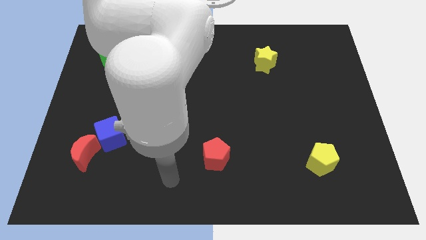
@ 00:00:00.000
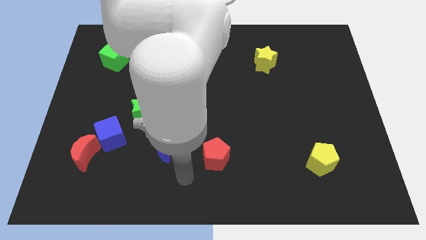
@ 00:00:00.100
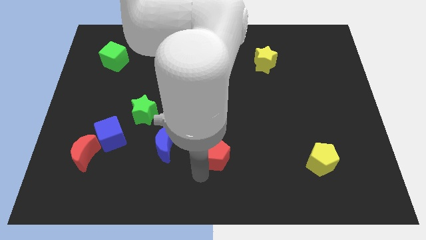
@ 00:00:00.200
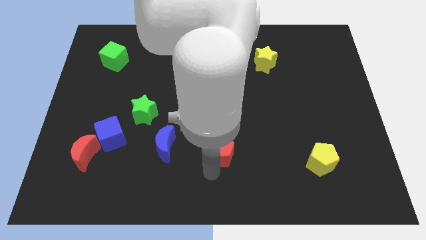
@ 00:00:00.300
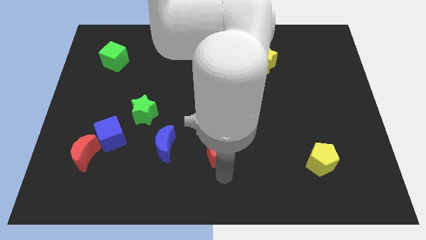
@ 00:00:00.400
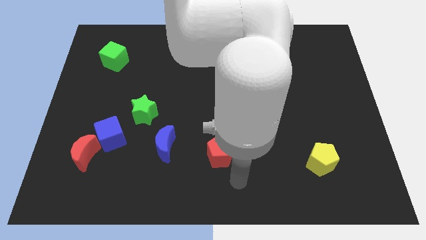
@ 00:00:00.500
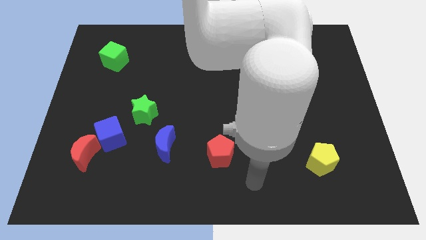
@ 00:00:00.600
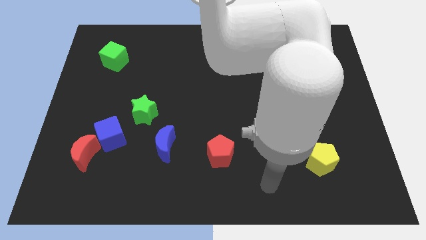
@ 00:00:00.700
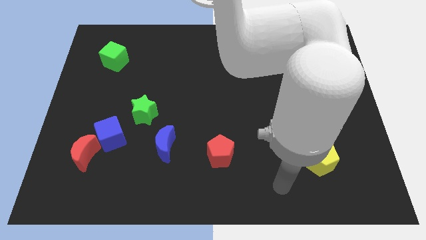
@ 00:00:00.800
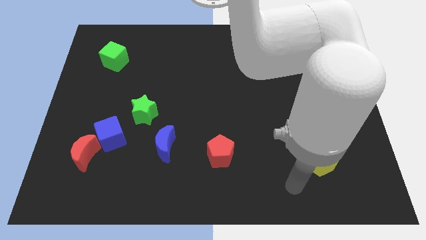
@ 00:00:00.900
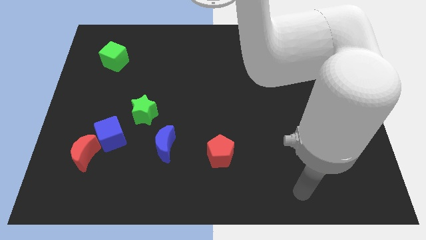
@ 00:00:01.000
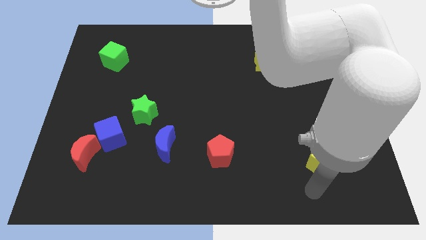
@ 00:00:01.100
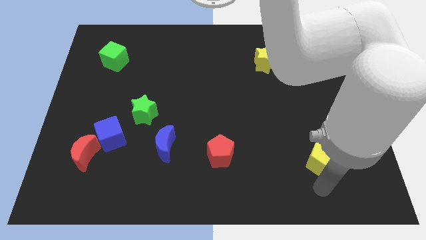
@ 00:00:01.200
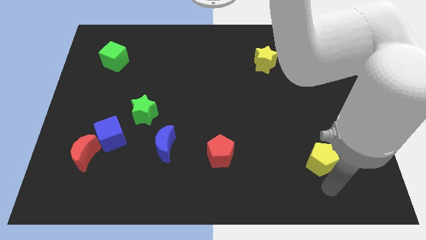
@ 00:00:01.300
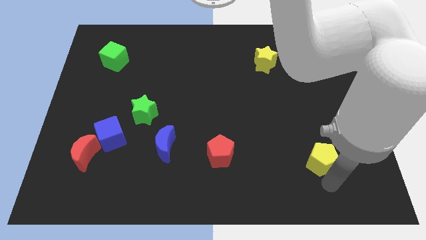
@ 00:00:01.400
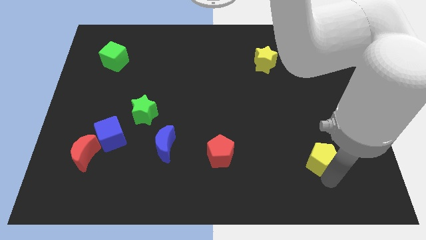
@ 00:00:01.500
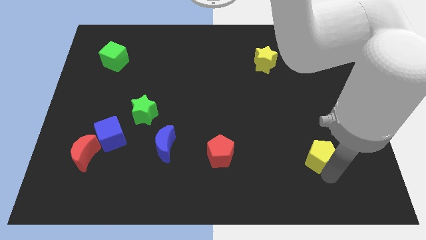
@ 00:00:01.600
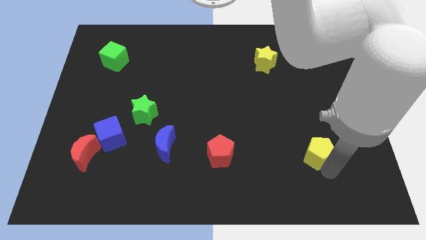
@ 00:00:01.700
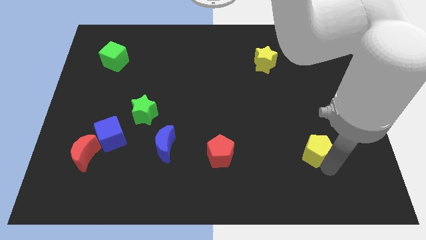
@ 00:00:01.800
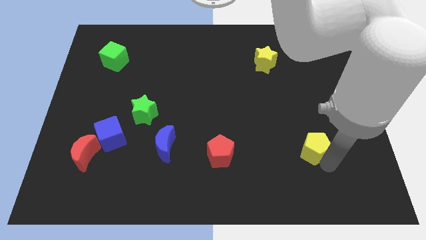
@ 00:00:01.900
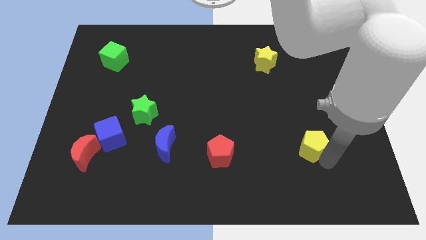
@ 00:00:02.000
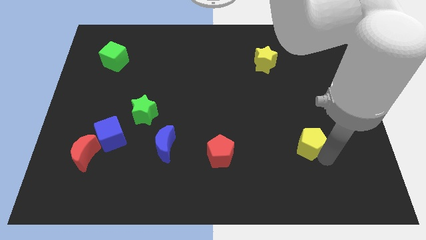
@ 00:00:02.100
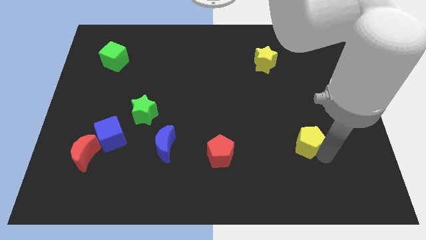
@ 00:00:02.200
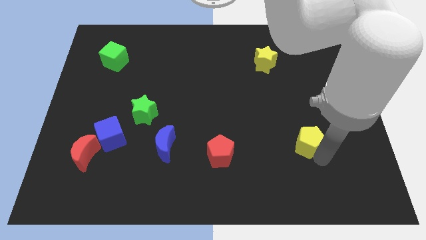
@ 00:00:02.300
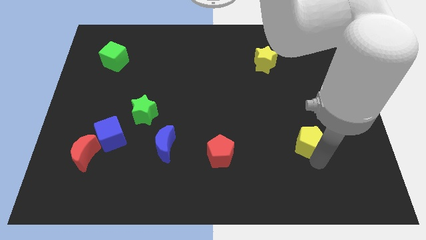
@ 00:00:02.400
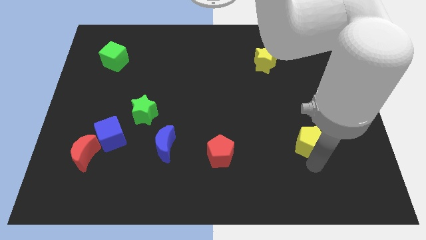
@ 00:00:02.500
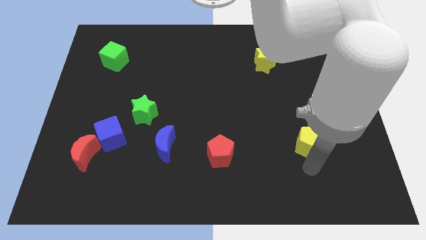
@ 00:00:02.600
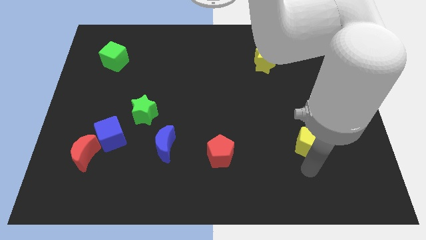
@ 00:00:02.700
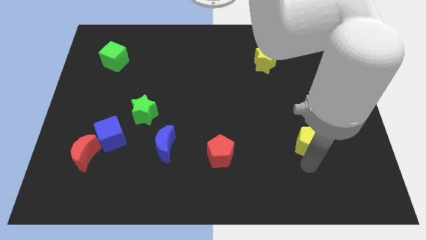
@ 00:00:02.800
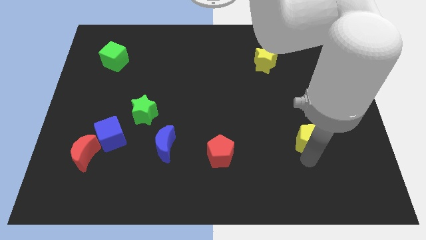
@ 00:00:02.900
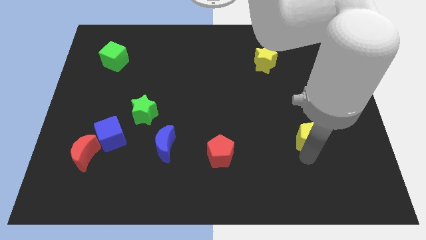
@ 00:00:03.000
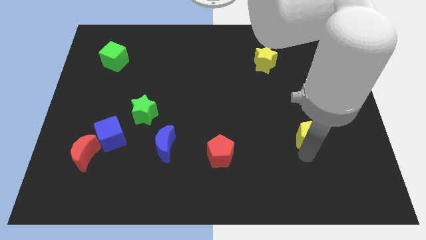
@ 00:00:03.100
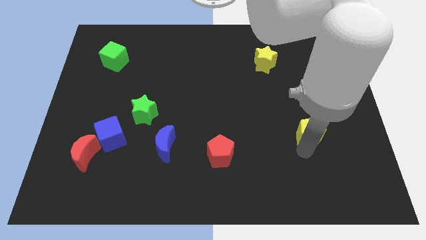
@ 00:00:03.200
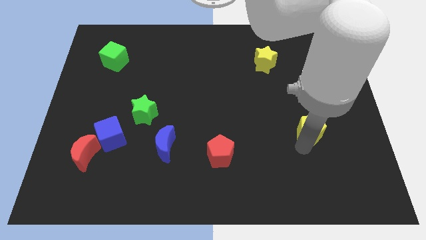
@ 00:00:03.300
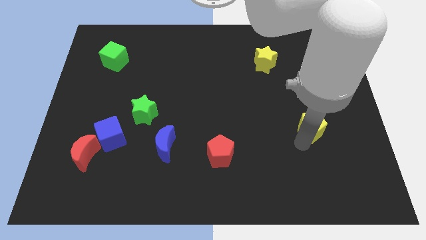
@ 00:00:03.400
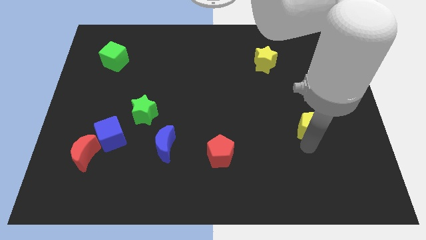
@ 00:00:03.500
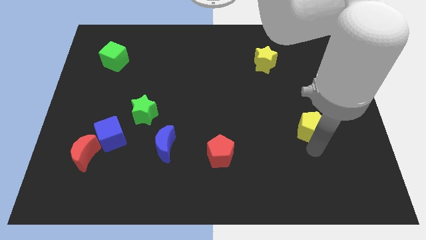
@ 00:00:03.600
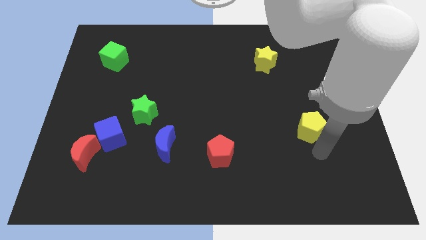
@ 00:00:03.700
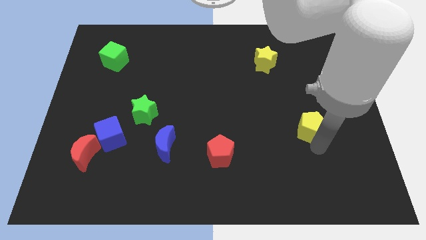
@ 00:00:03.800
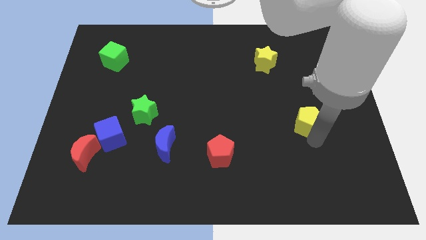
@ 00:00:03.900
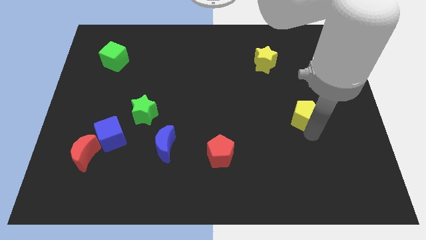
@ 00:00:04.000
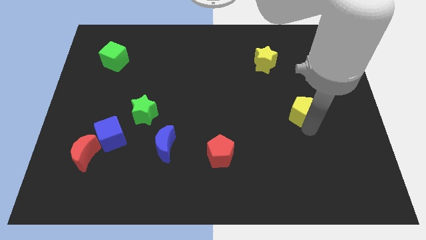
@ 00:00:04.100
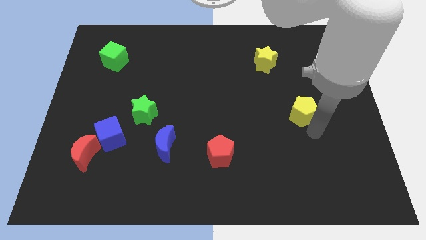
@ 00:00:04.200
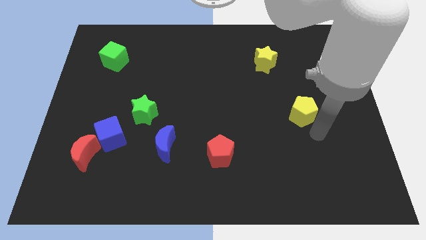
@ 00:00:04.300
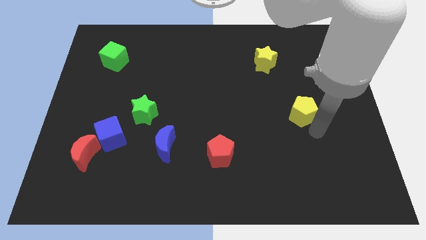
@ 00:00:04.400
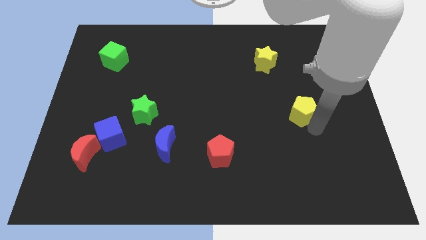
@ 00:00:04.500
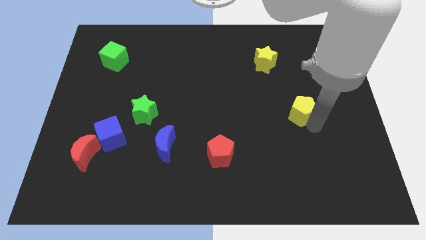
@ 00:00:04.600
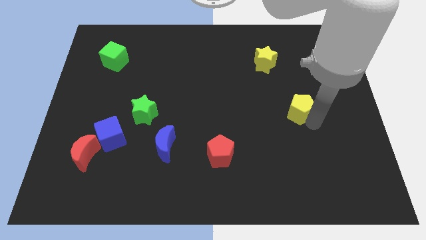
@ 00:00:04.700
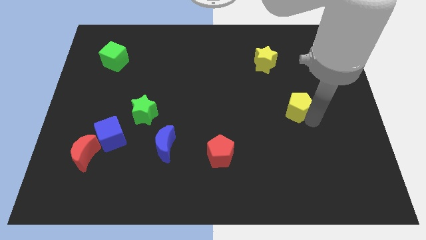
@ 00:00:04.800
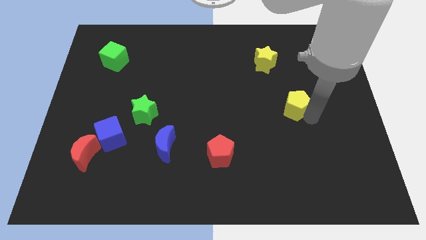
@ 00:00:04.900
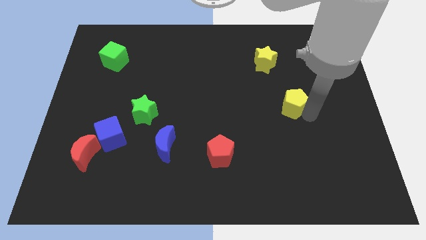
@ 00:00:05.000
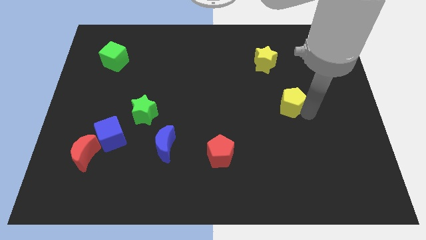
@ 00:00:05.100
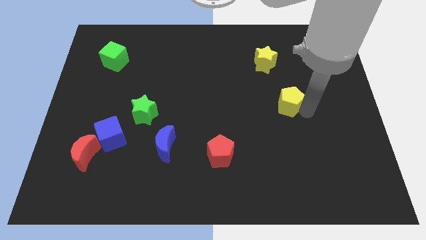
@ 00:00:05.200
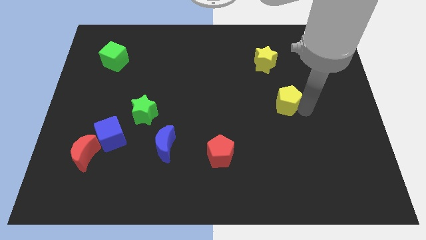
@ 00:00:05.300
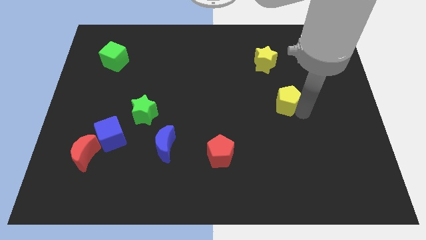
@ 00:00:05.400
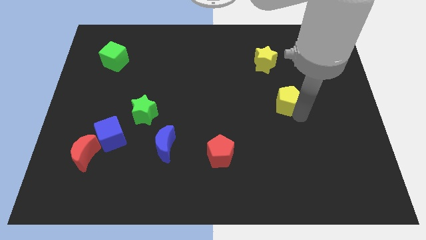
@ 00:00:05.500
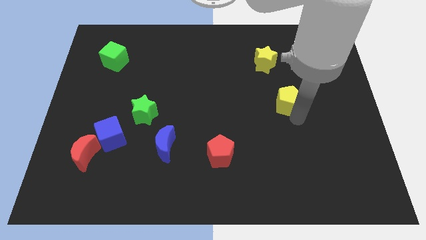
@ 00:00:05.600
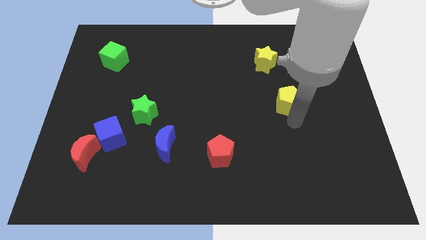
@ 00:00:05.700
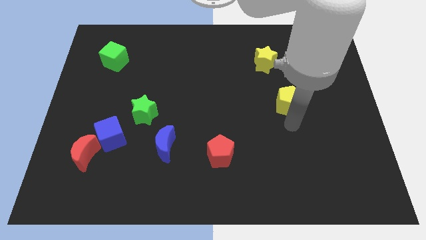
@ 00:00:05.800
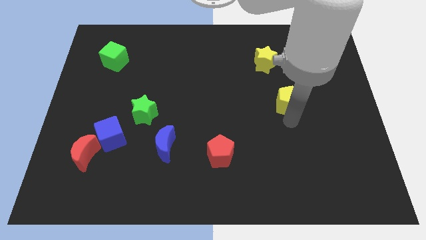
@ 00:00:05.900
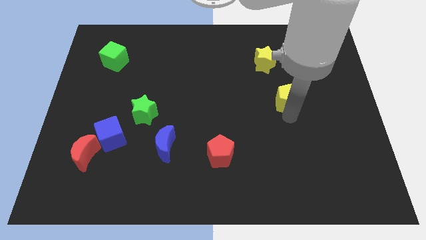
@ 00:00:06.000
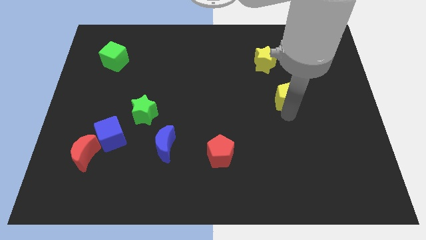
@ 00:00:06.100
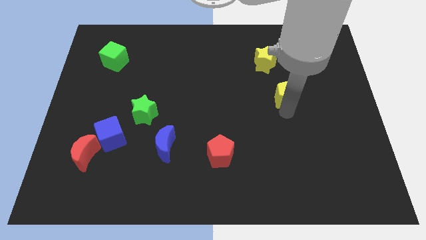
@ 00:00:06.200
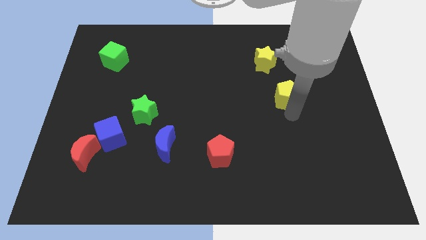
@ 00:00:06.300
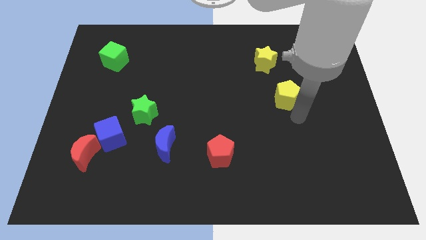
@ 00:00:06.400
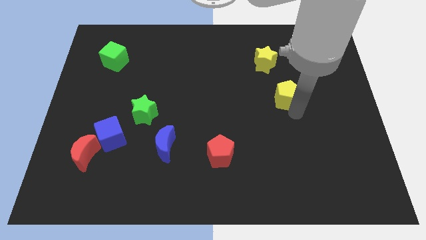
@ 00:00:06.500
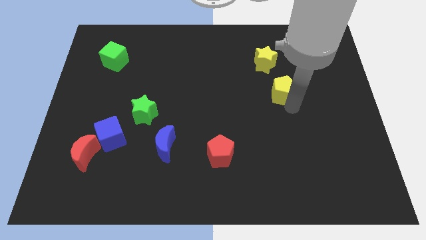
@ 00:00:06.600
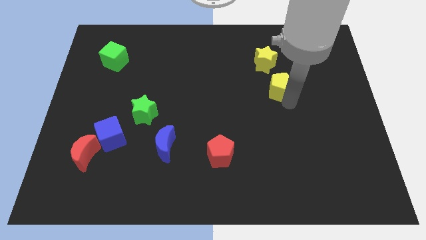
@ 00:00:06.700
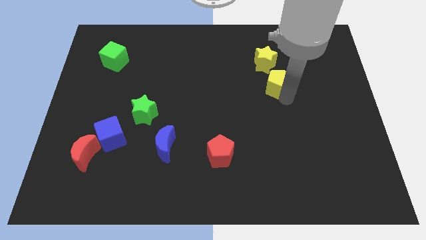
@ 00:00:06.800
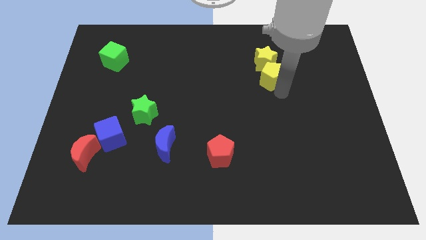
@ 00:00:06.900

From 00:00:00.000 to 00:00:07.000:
slide the yellow pentagon to the yellow star

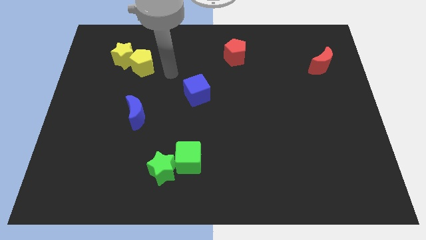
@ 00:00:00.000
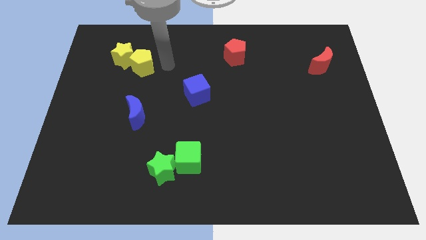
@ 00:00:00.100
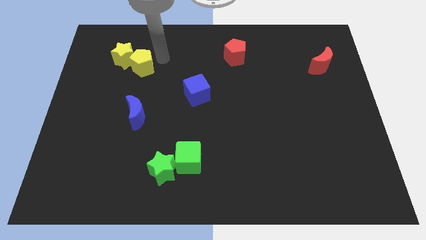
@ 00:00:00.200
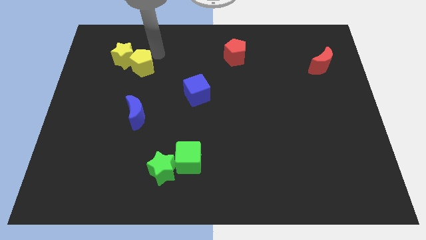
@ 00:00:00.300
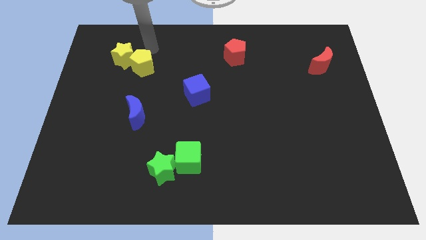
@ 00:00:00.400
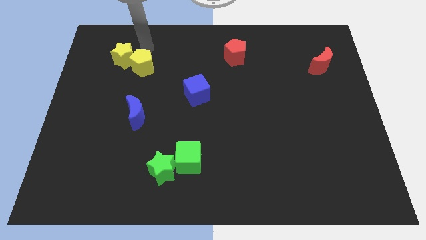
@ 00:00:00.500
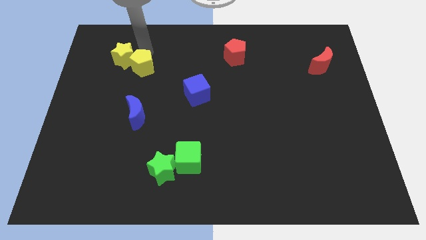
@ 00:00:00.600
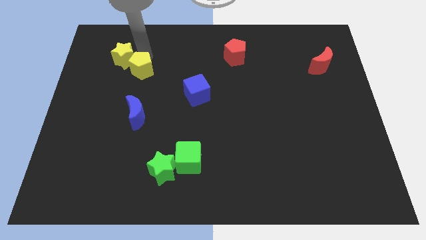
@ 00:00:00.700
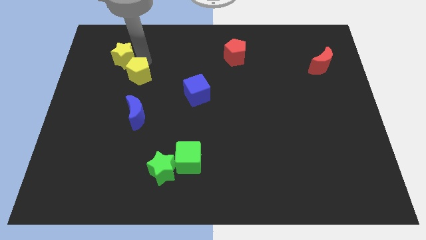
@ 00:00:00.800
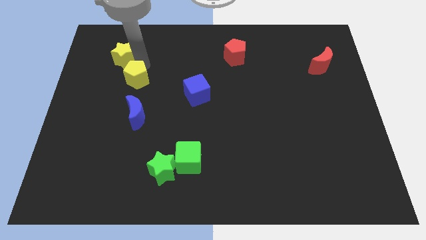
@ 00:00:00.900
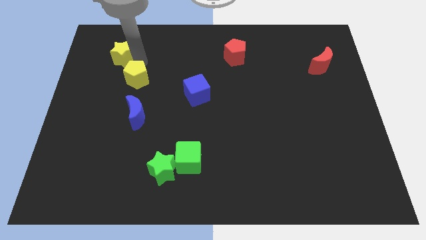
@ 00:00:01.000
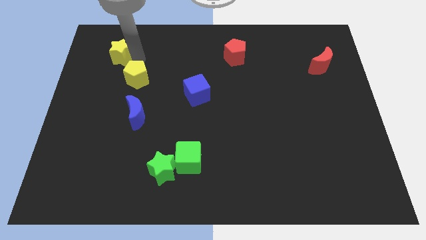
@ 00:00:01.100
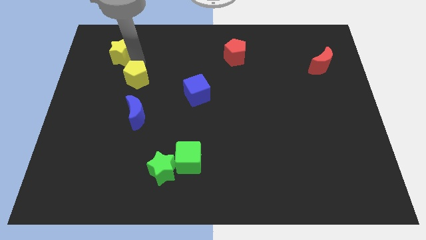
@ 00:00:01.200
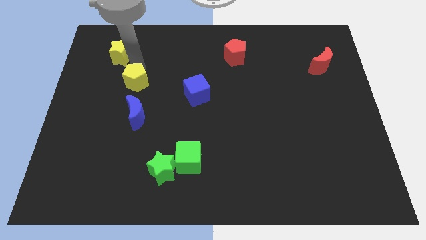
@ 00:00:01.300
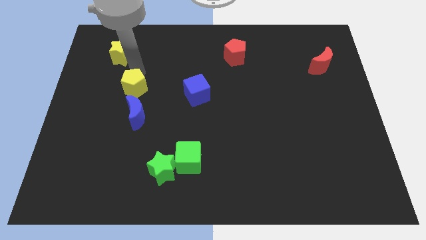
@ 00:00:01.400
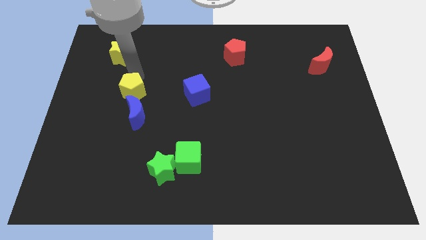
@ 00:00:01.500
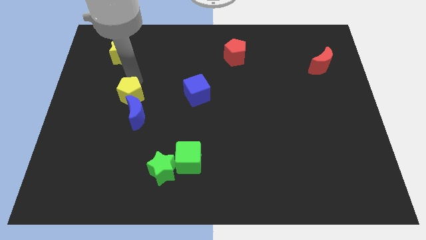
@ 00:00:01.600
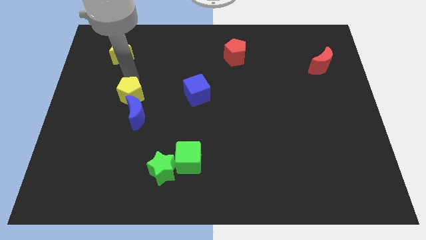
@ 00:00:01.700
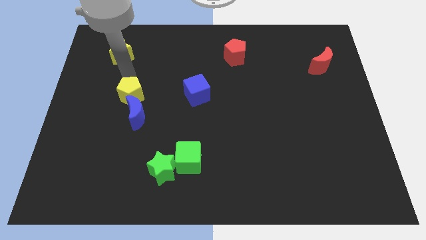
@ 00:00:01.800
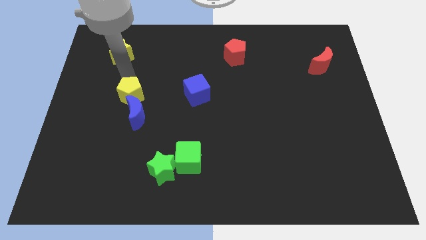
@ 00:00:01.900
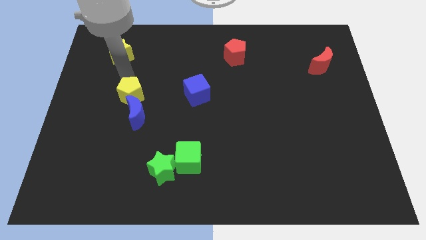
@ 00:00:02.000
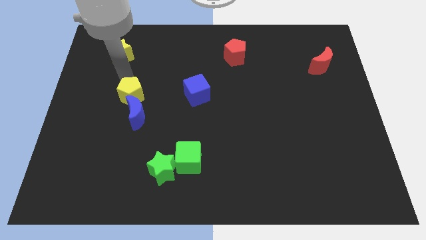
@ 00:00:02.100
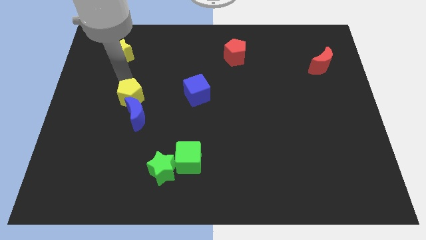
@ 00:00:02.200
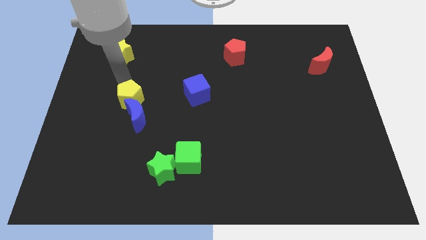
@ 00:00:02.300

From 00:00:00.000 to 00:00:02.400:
move the yellow pentagon towards the blue moon
